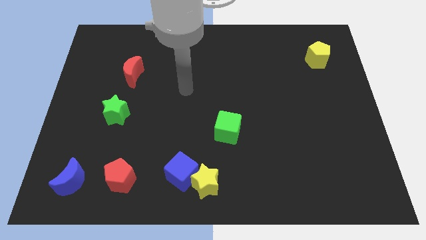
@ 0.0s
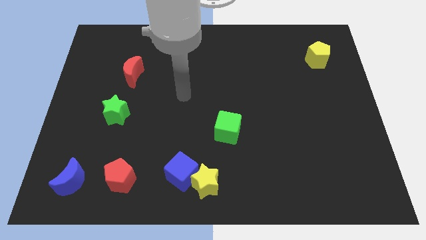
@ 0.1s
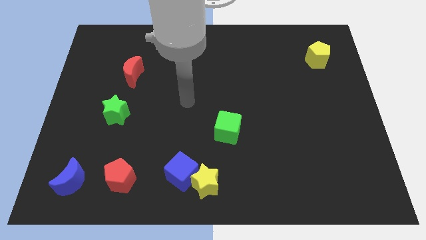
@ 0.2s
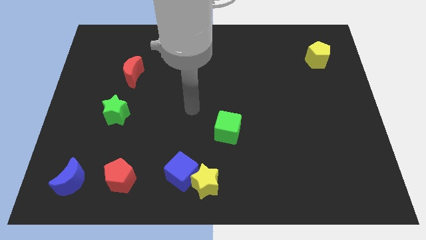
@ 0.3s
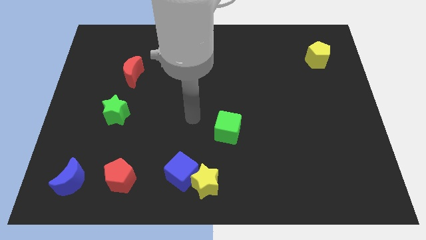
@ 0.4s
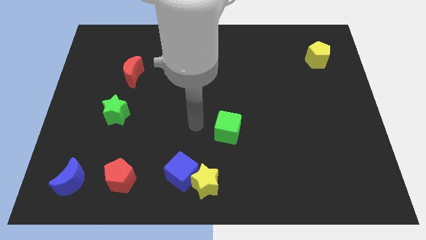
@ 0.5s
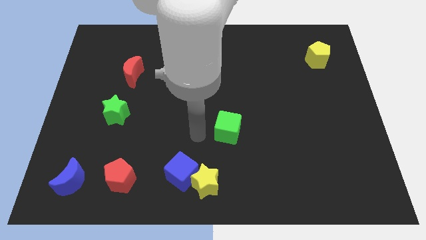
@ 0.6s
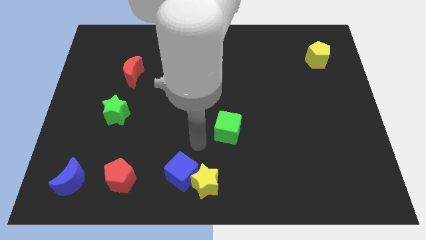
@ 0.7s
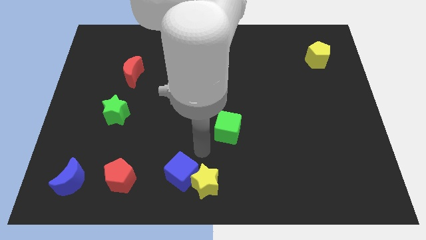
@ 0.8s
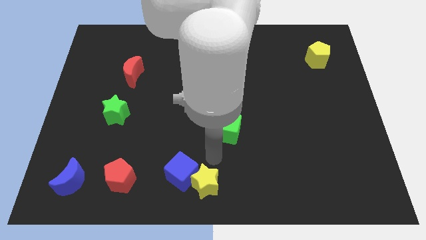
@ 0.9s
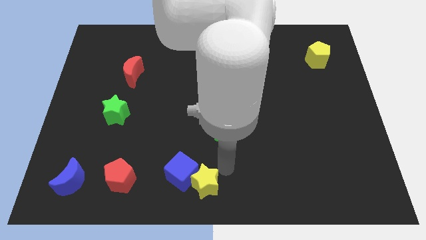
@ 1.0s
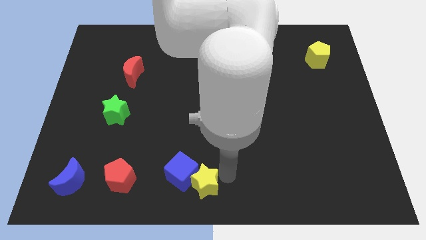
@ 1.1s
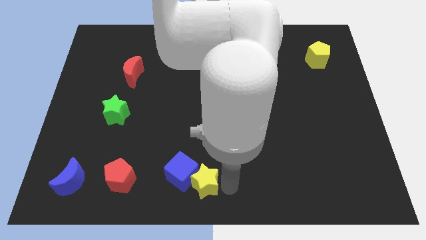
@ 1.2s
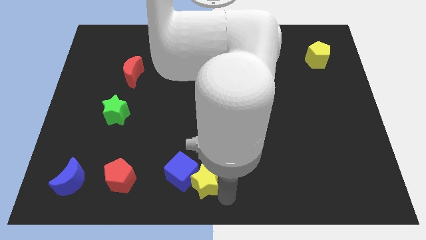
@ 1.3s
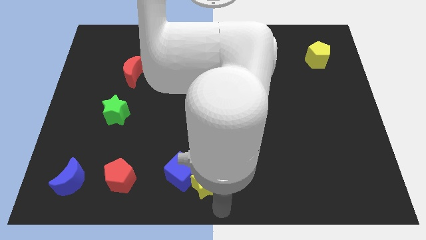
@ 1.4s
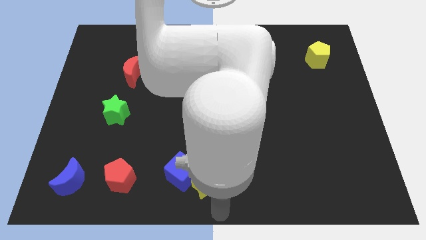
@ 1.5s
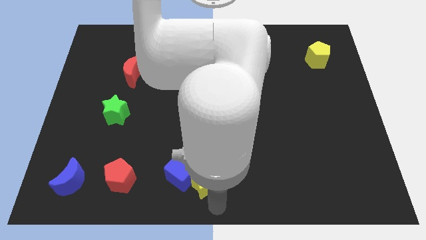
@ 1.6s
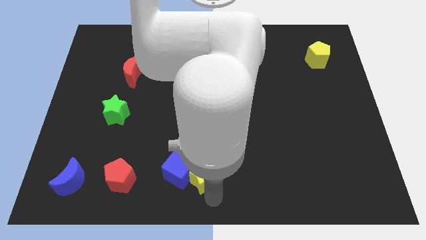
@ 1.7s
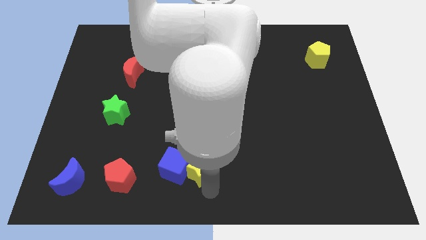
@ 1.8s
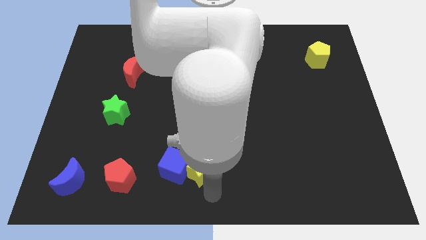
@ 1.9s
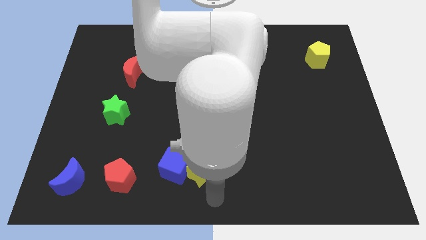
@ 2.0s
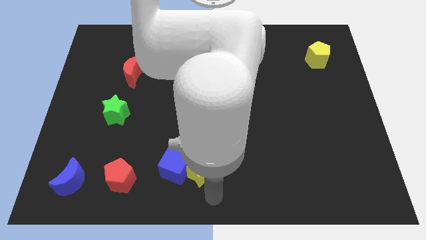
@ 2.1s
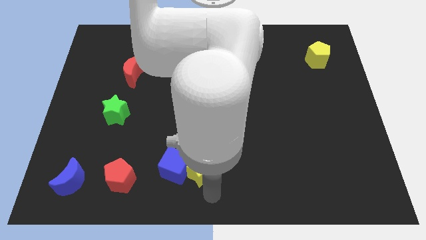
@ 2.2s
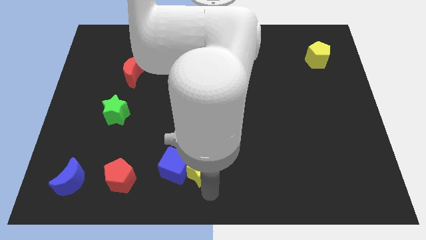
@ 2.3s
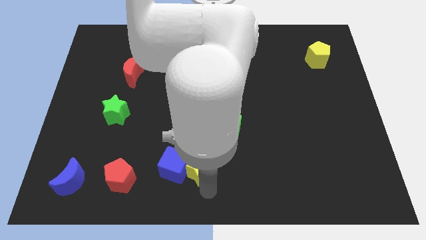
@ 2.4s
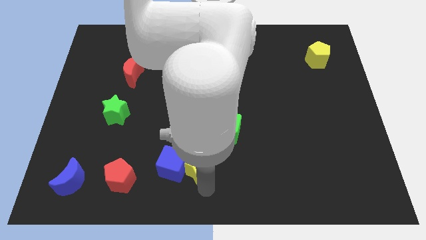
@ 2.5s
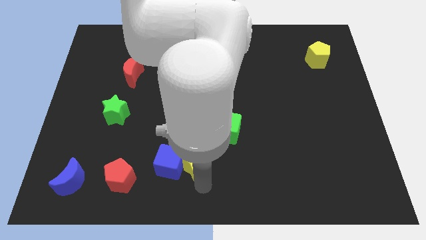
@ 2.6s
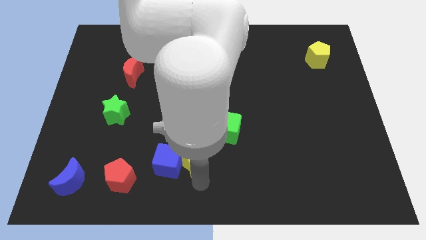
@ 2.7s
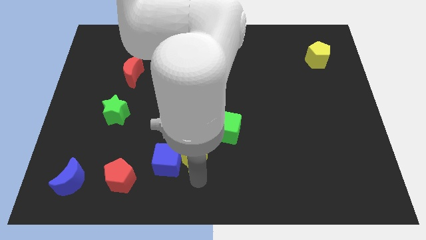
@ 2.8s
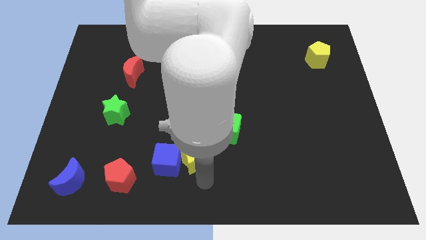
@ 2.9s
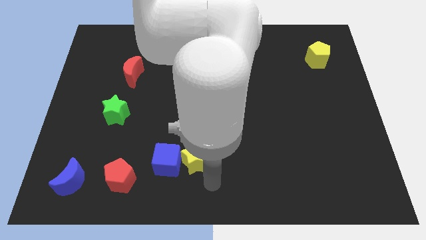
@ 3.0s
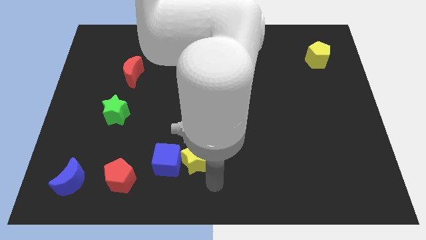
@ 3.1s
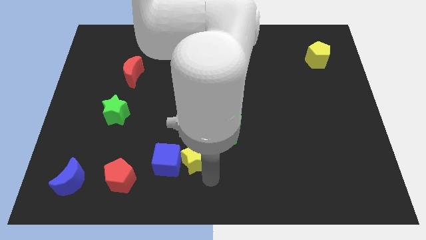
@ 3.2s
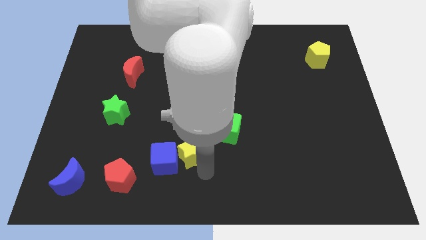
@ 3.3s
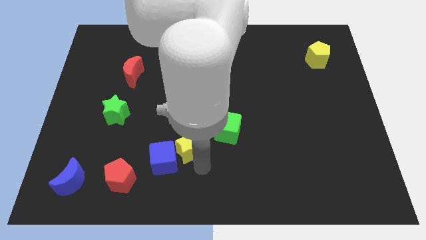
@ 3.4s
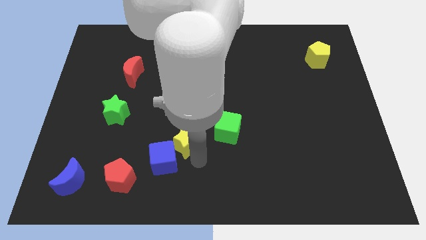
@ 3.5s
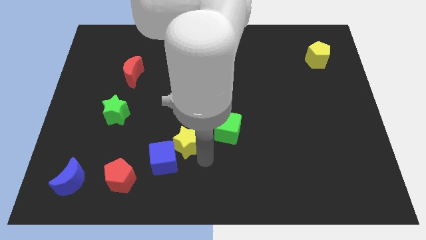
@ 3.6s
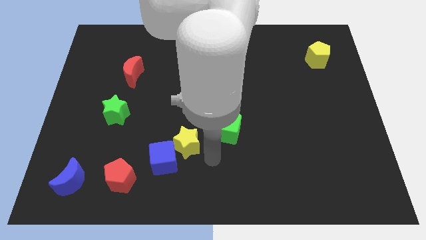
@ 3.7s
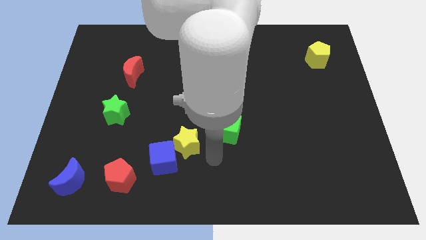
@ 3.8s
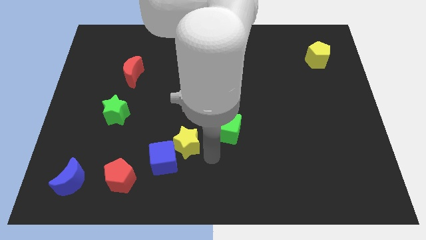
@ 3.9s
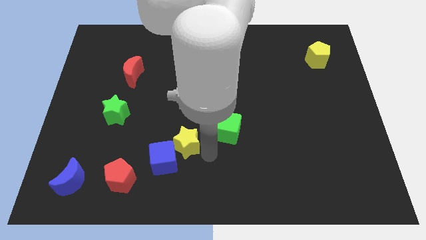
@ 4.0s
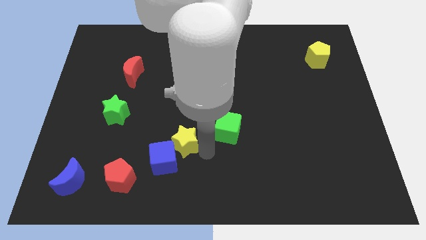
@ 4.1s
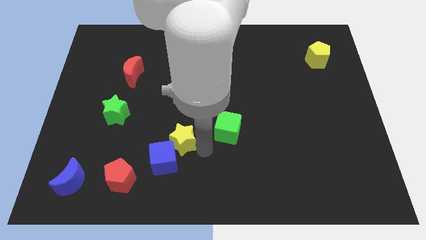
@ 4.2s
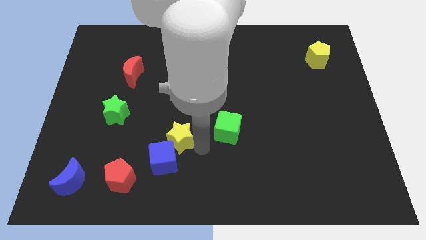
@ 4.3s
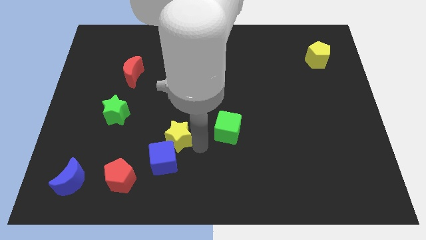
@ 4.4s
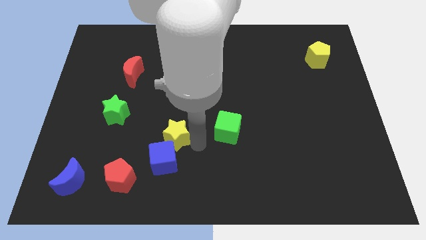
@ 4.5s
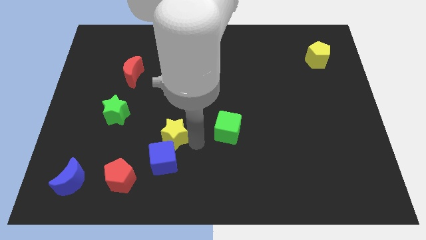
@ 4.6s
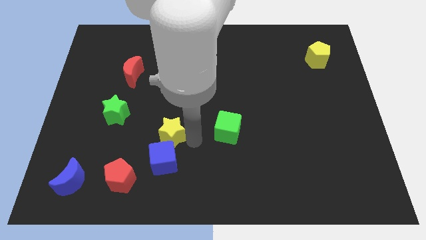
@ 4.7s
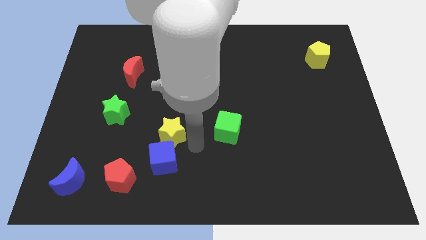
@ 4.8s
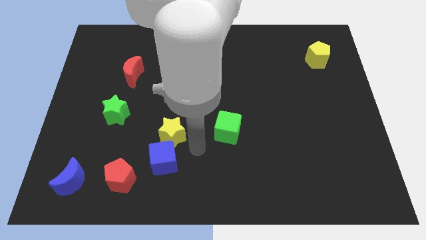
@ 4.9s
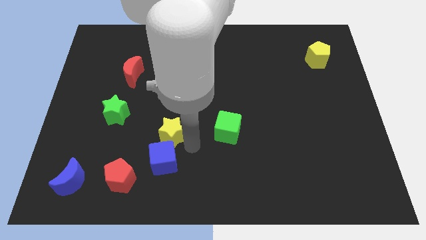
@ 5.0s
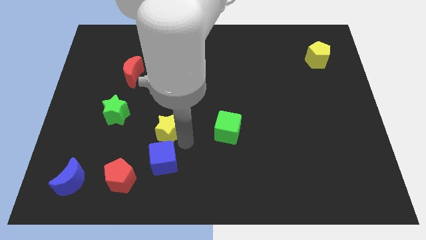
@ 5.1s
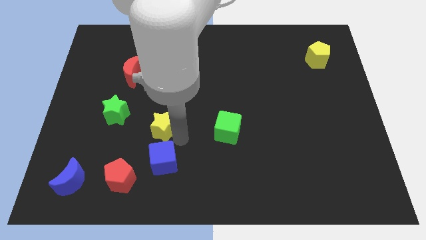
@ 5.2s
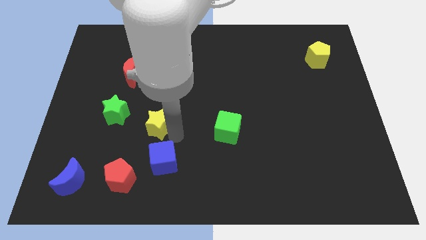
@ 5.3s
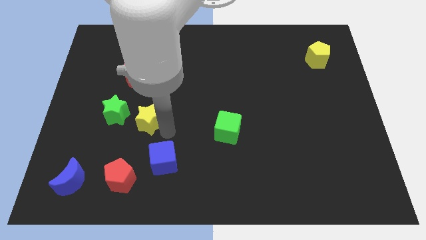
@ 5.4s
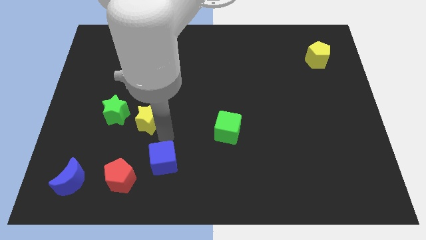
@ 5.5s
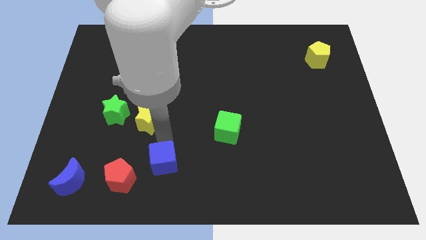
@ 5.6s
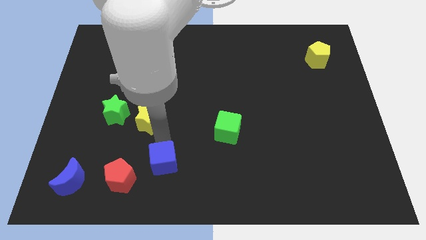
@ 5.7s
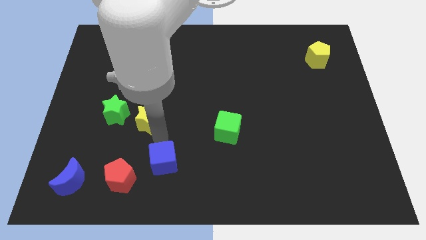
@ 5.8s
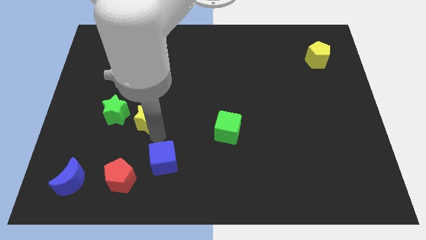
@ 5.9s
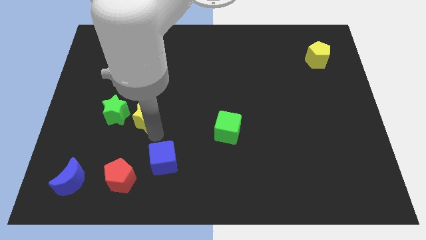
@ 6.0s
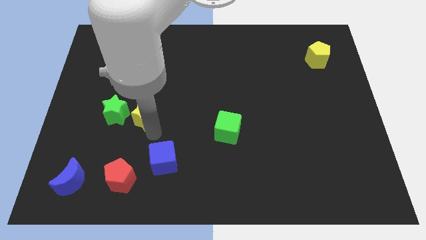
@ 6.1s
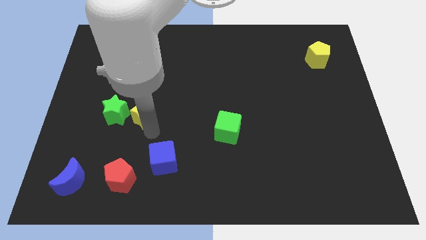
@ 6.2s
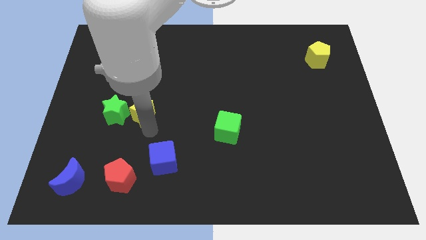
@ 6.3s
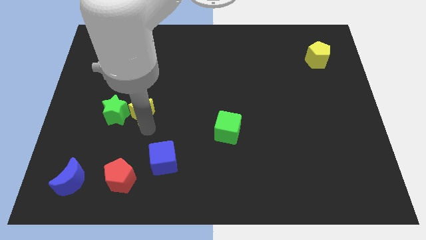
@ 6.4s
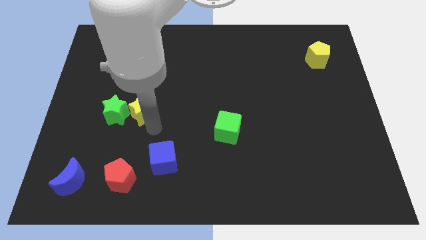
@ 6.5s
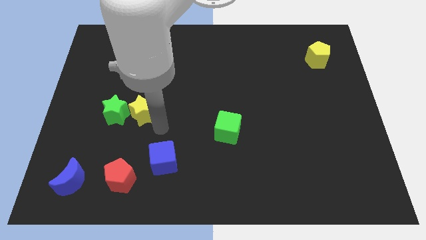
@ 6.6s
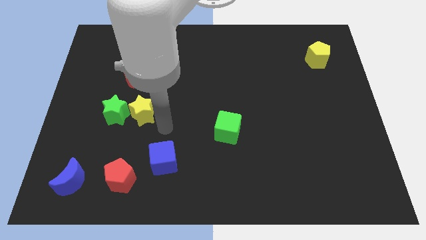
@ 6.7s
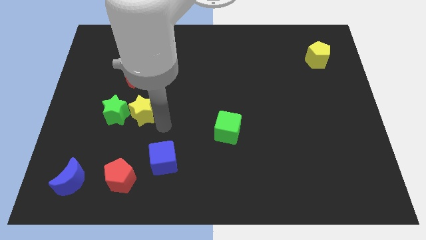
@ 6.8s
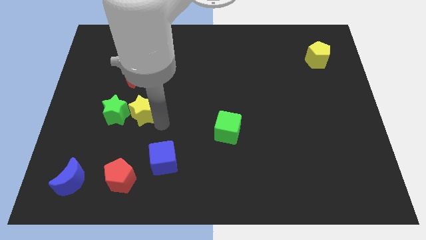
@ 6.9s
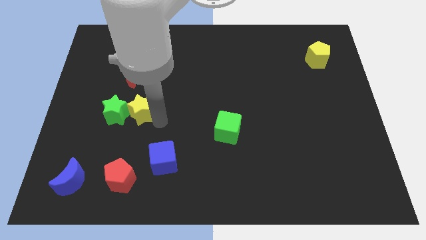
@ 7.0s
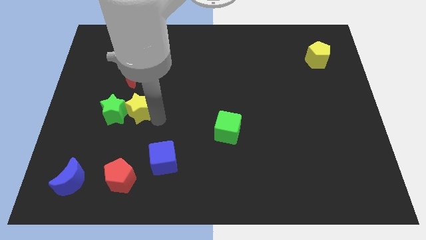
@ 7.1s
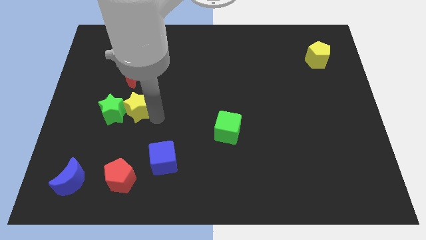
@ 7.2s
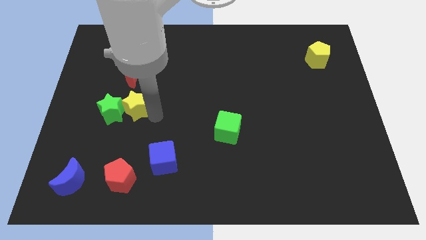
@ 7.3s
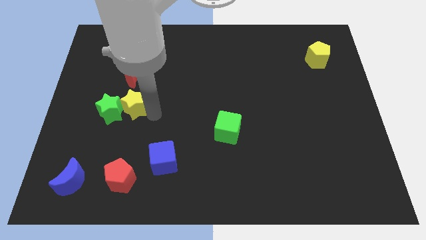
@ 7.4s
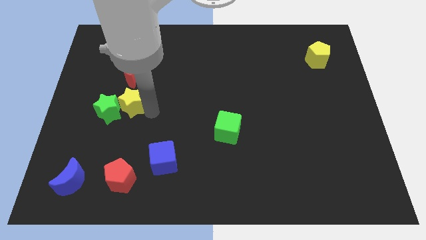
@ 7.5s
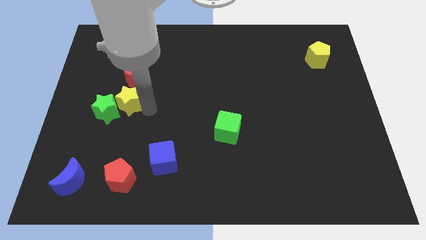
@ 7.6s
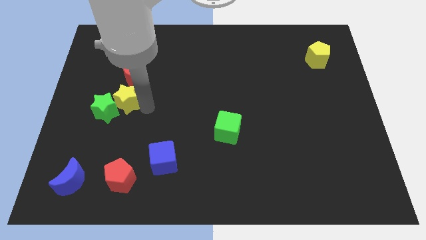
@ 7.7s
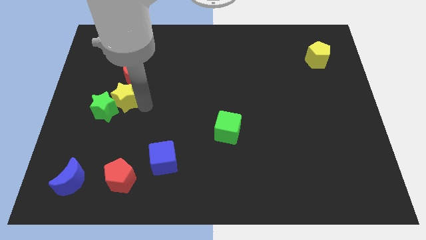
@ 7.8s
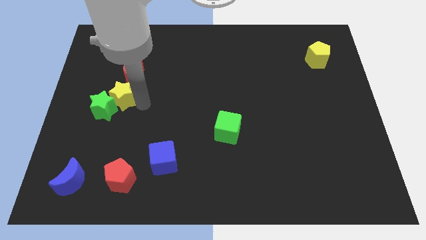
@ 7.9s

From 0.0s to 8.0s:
put the yellow star to the bottom left of the red moon
